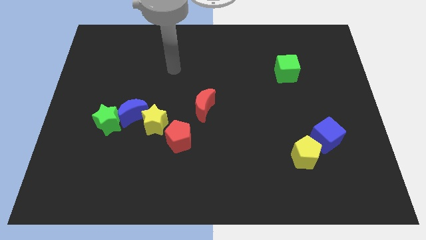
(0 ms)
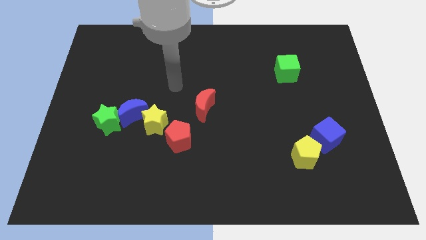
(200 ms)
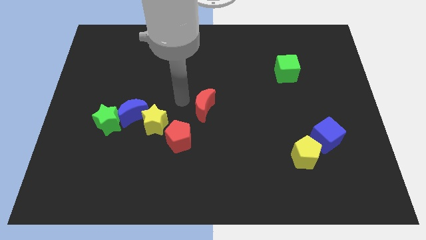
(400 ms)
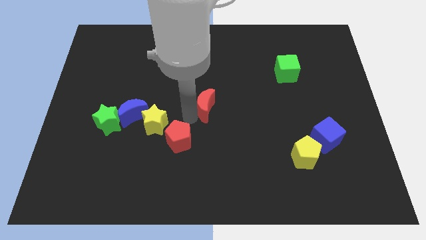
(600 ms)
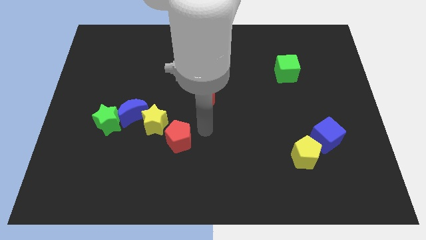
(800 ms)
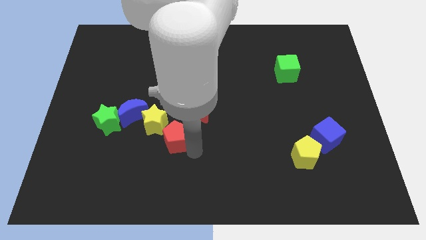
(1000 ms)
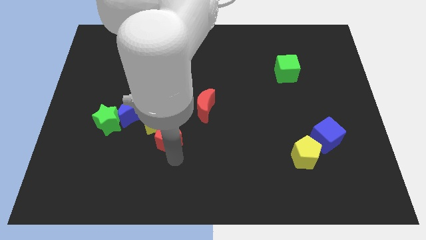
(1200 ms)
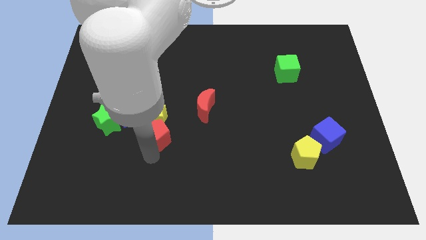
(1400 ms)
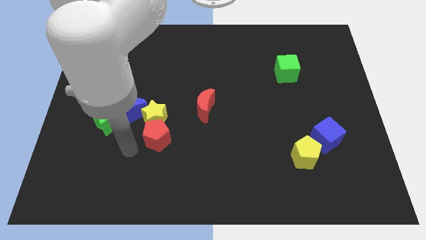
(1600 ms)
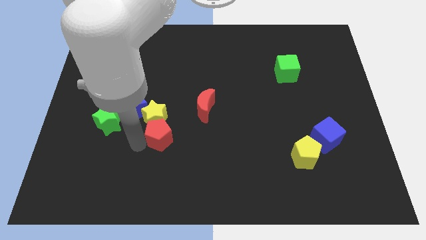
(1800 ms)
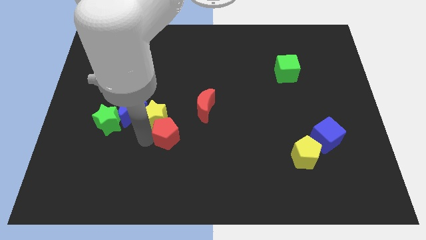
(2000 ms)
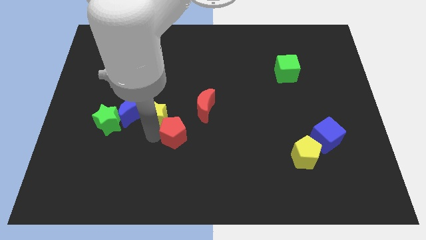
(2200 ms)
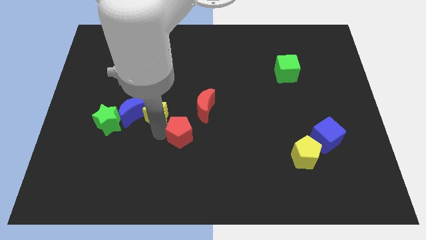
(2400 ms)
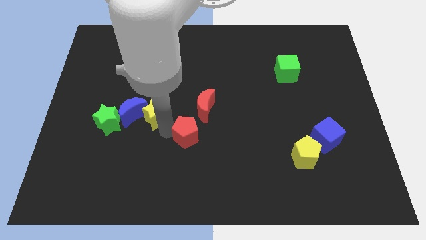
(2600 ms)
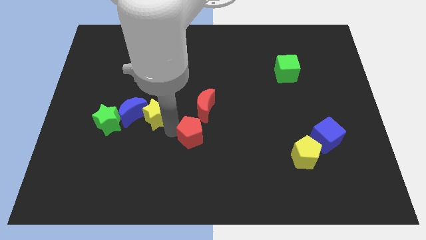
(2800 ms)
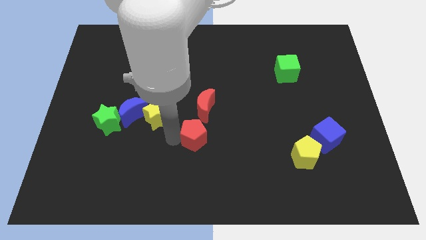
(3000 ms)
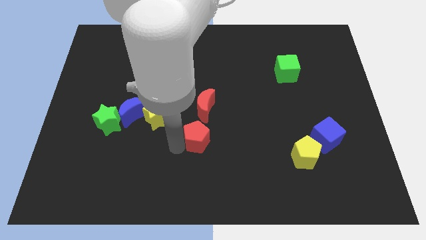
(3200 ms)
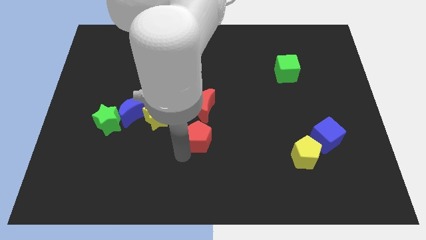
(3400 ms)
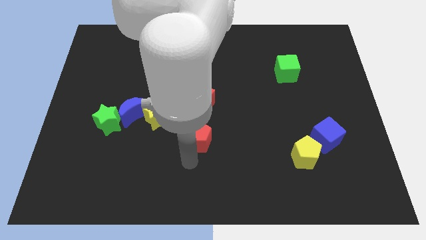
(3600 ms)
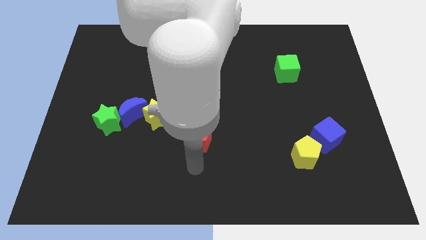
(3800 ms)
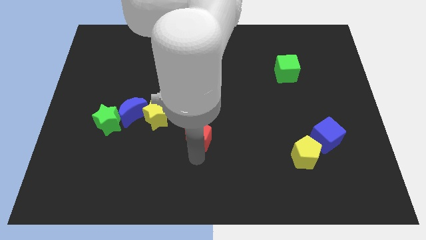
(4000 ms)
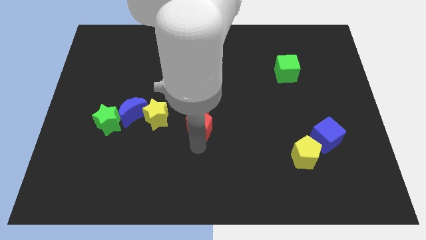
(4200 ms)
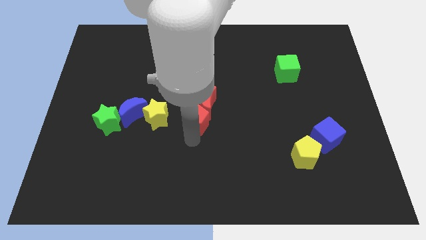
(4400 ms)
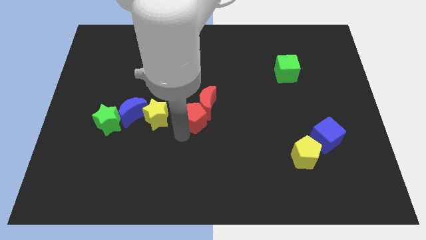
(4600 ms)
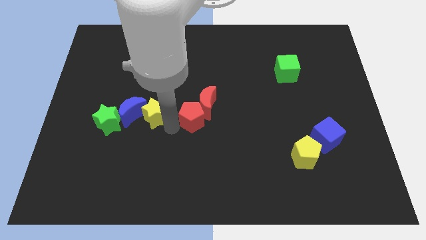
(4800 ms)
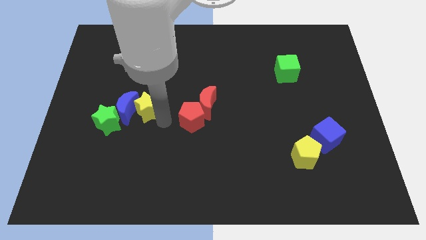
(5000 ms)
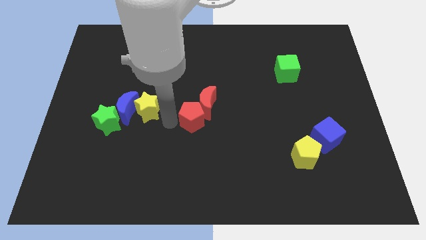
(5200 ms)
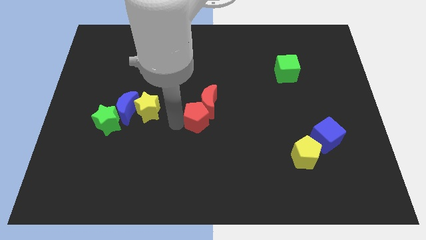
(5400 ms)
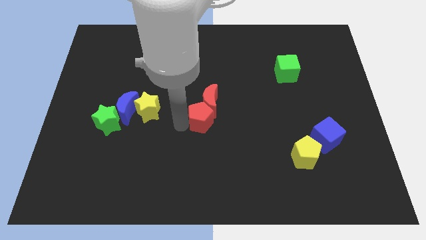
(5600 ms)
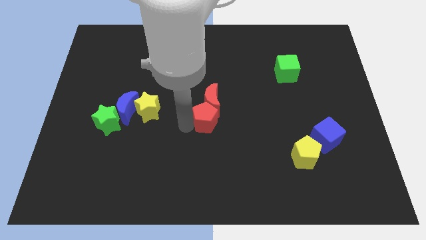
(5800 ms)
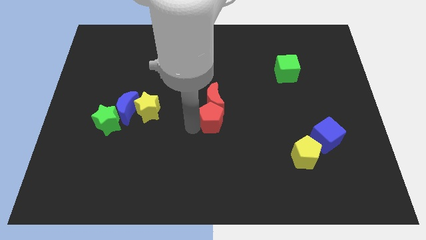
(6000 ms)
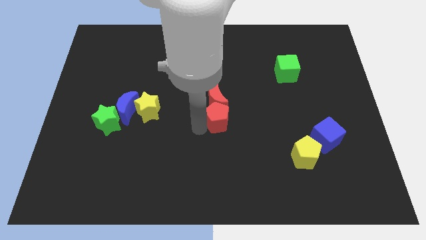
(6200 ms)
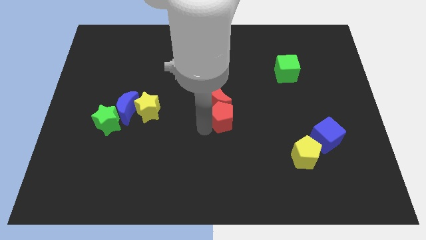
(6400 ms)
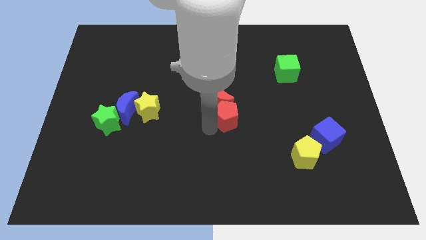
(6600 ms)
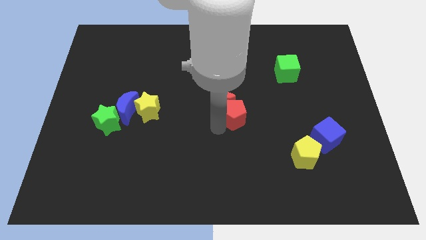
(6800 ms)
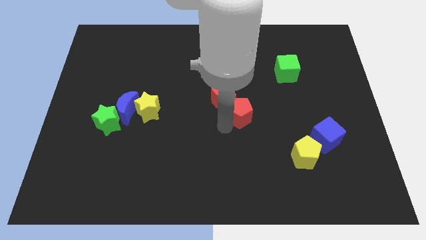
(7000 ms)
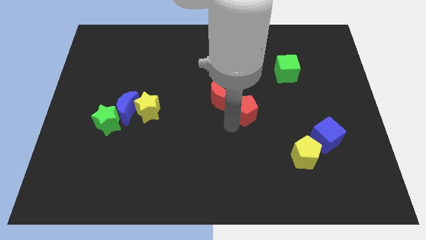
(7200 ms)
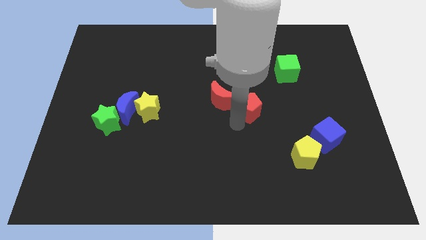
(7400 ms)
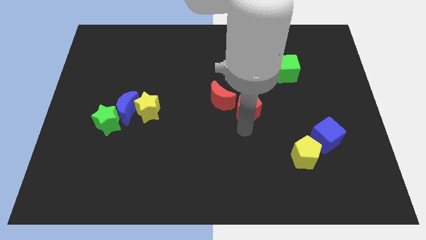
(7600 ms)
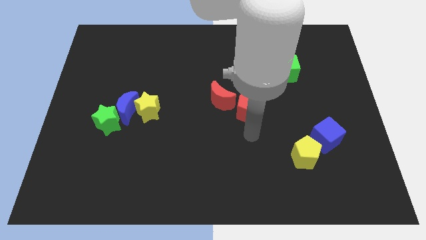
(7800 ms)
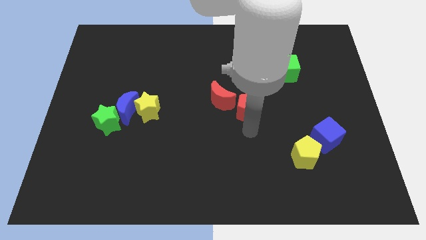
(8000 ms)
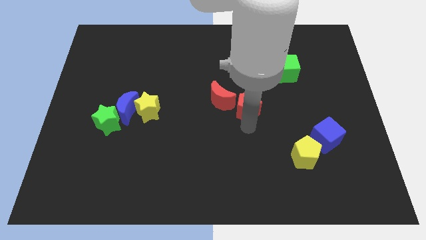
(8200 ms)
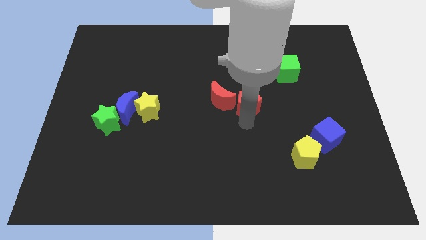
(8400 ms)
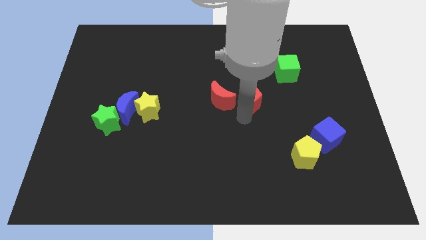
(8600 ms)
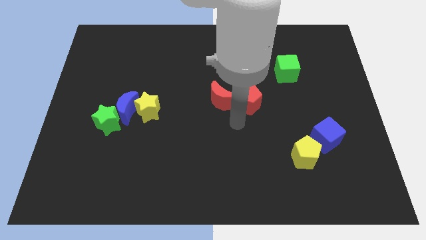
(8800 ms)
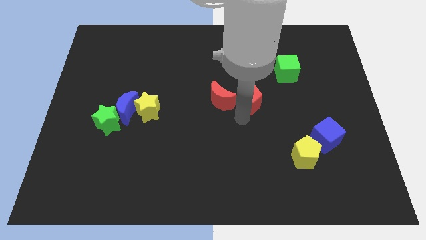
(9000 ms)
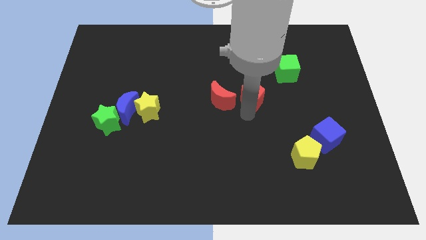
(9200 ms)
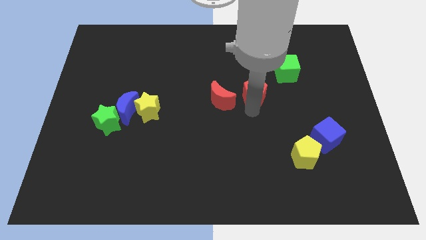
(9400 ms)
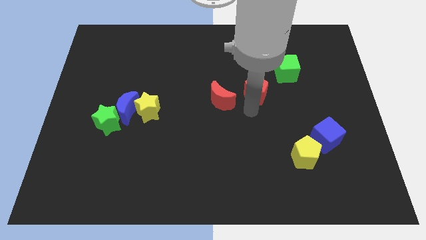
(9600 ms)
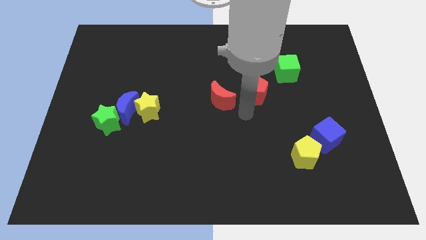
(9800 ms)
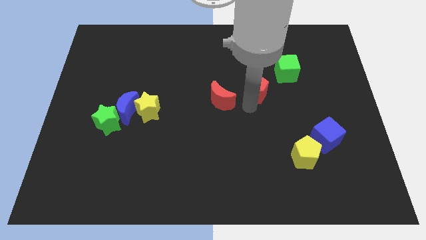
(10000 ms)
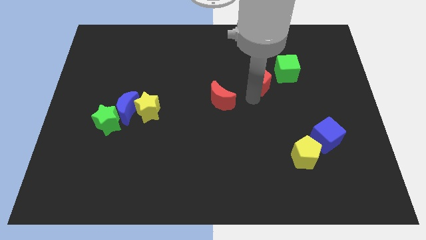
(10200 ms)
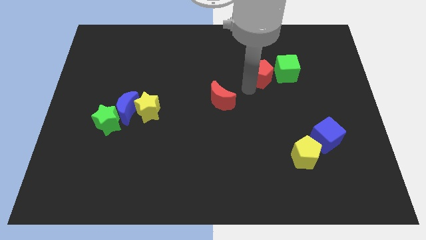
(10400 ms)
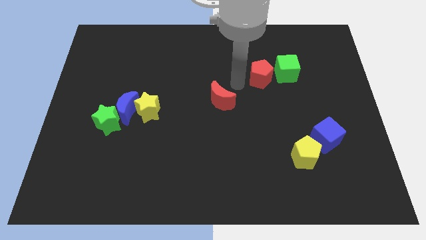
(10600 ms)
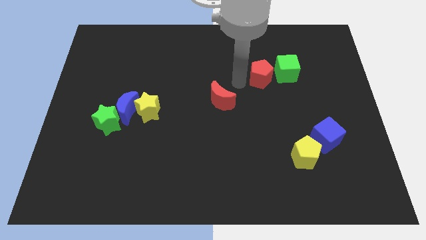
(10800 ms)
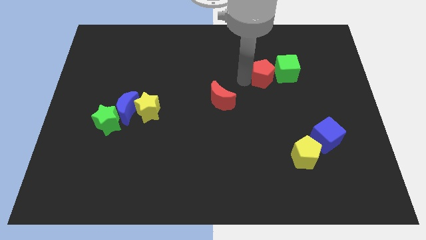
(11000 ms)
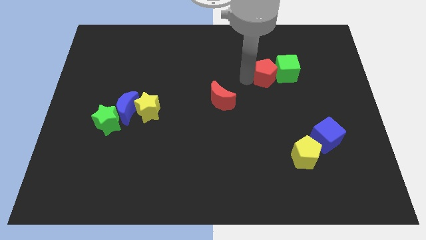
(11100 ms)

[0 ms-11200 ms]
push the red pentagon towards the green cube

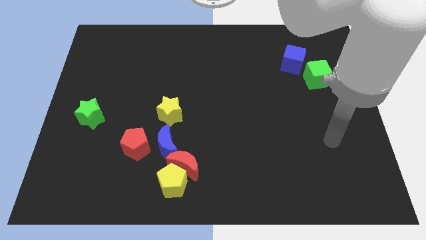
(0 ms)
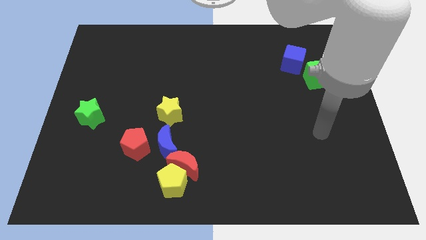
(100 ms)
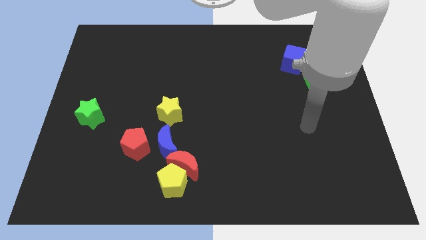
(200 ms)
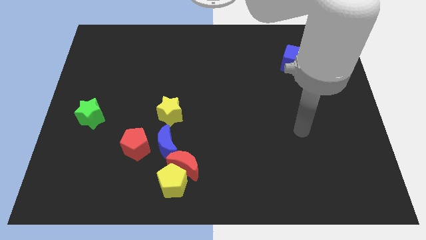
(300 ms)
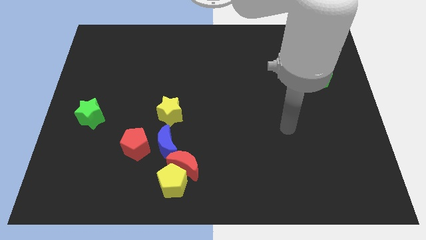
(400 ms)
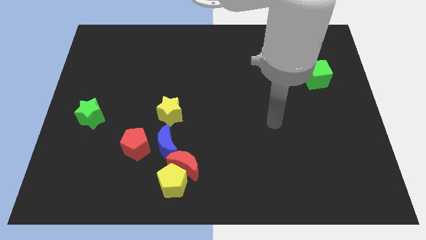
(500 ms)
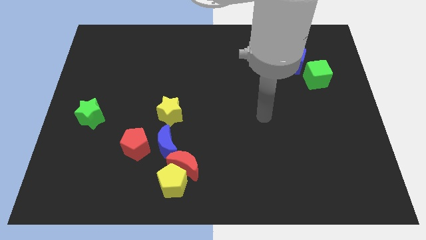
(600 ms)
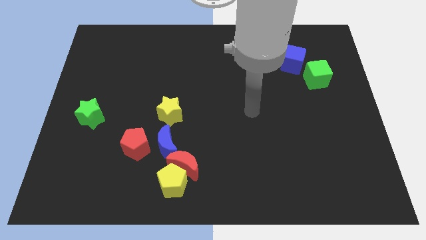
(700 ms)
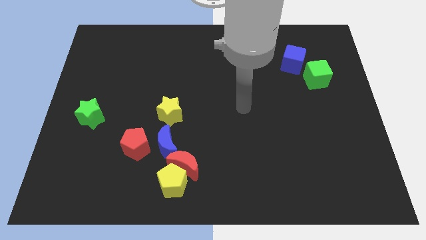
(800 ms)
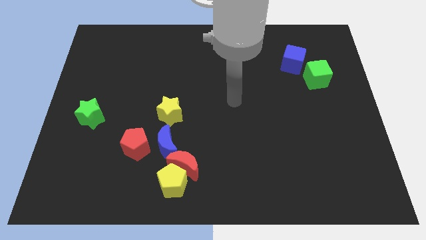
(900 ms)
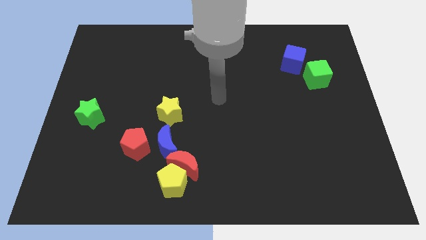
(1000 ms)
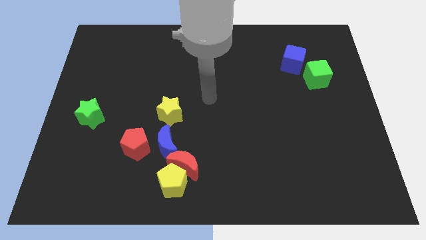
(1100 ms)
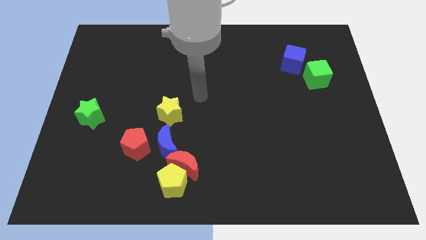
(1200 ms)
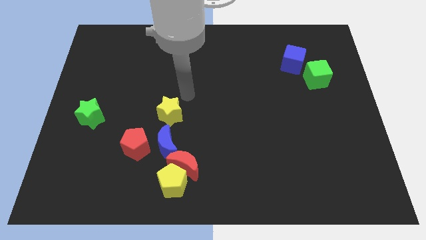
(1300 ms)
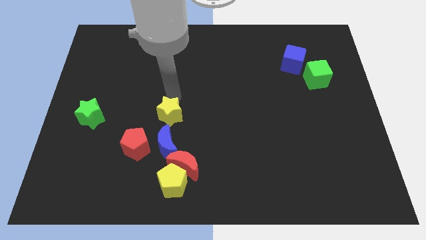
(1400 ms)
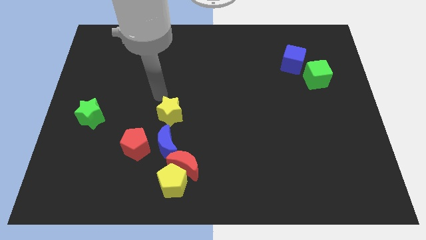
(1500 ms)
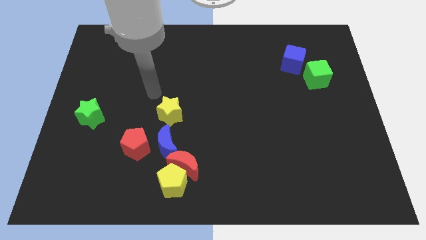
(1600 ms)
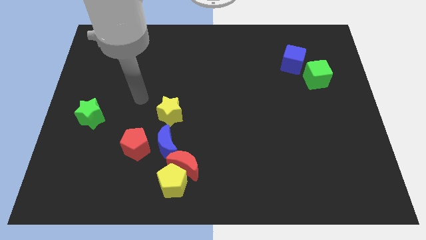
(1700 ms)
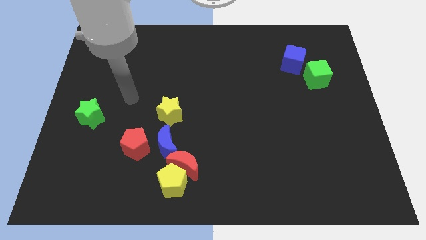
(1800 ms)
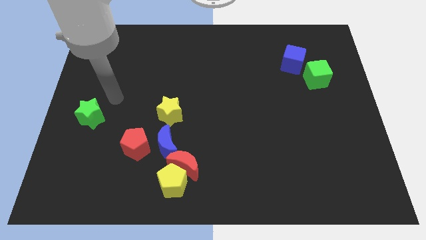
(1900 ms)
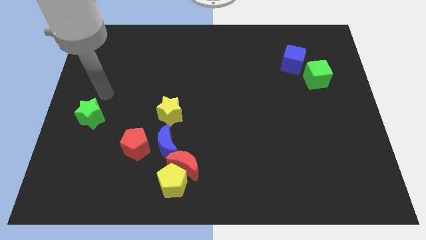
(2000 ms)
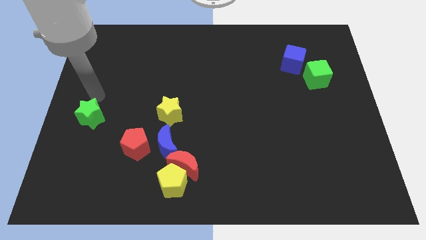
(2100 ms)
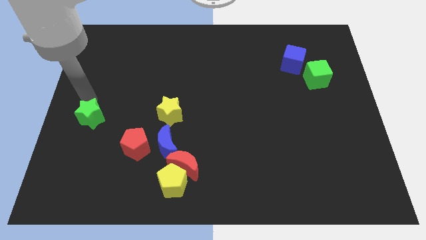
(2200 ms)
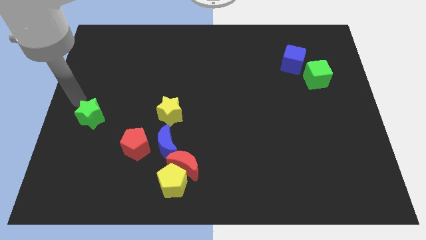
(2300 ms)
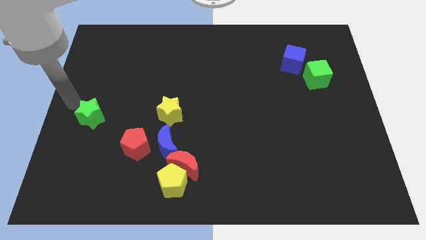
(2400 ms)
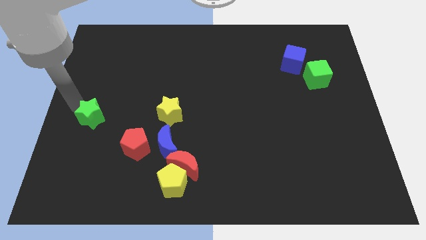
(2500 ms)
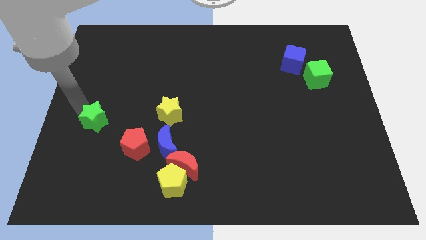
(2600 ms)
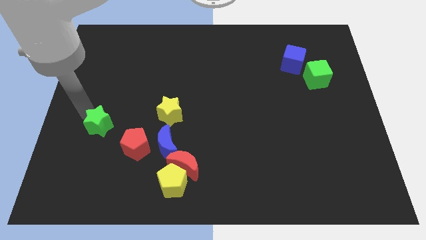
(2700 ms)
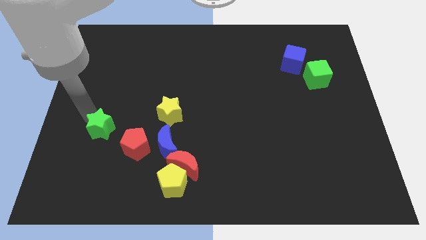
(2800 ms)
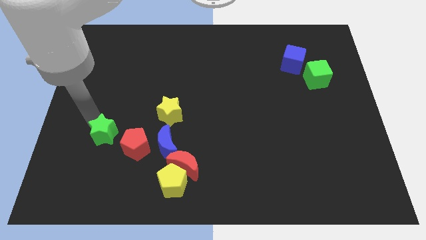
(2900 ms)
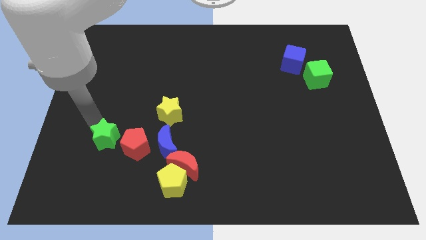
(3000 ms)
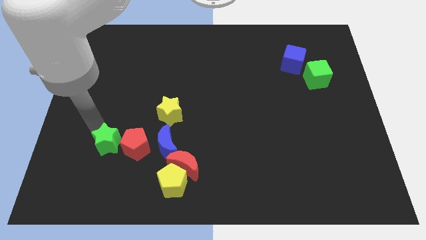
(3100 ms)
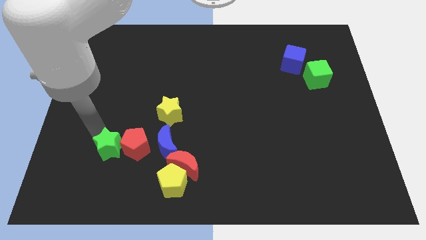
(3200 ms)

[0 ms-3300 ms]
push the green star towards the red pentagon
